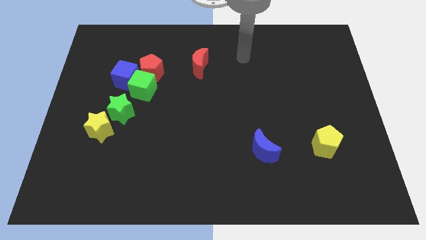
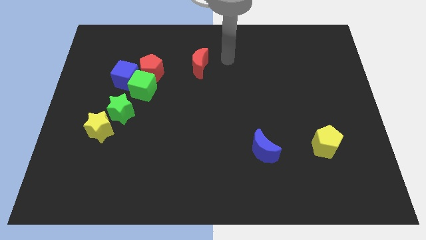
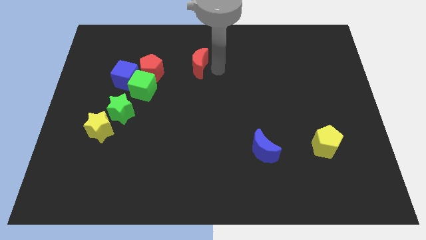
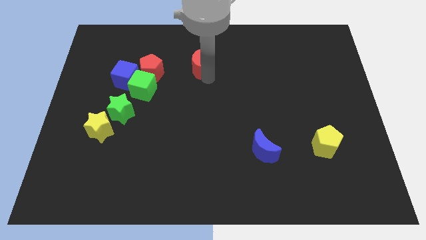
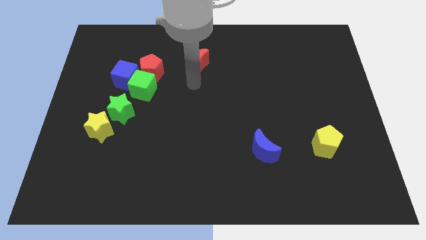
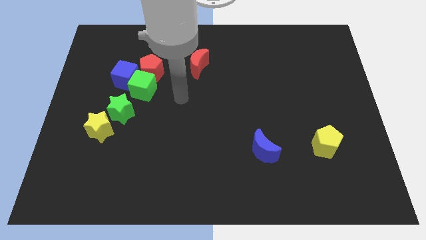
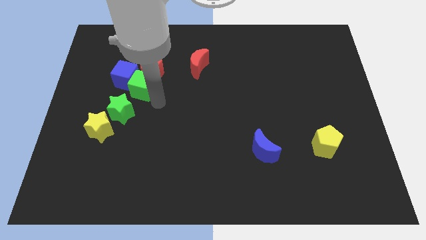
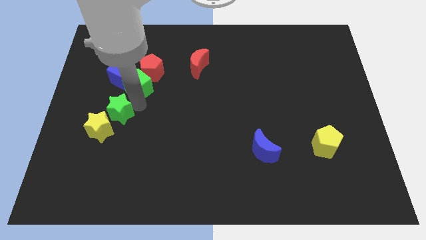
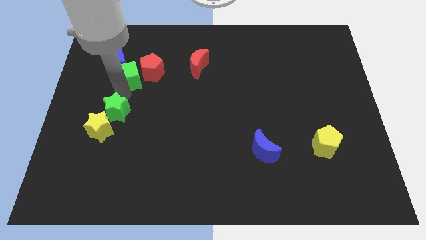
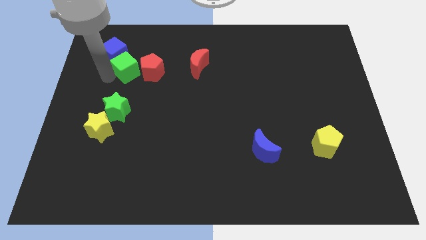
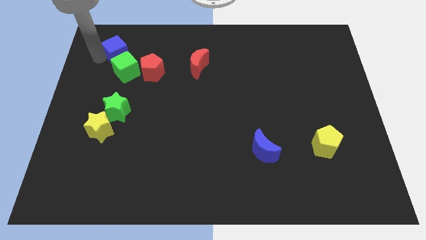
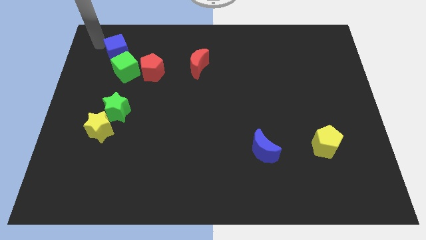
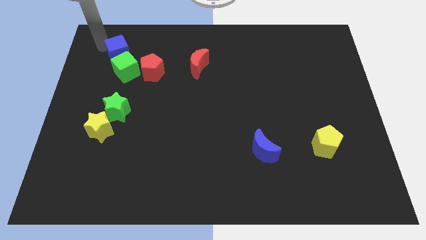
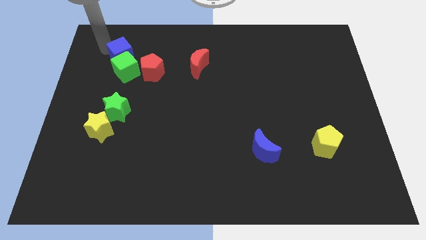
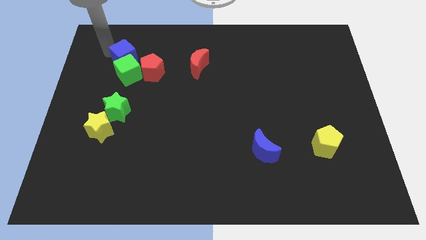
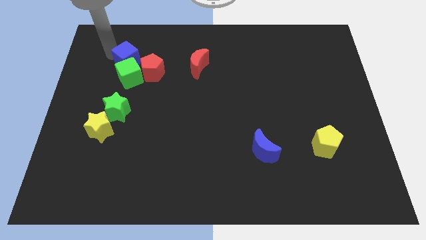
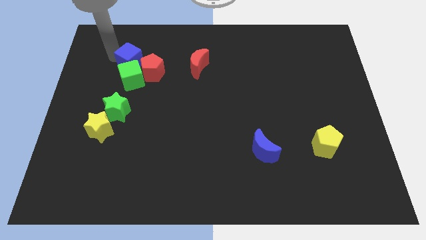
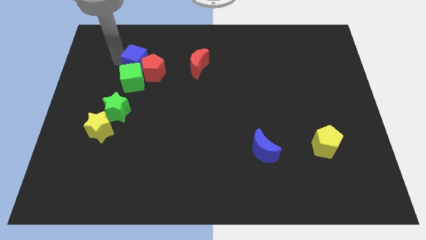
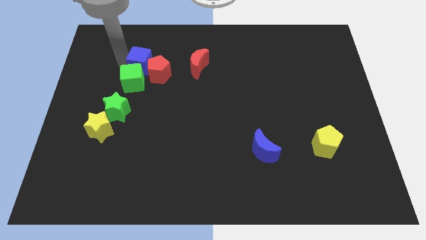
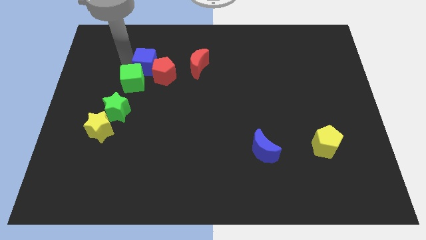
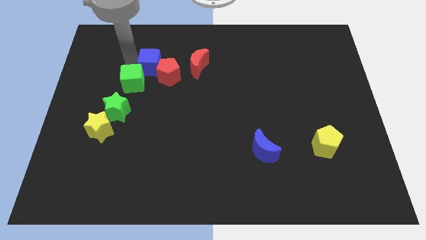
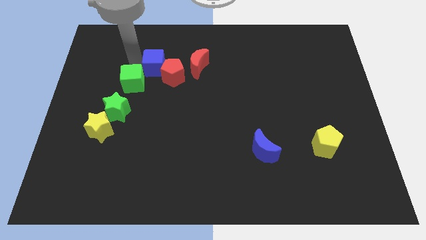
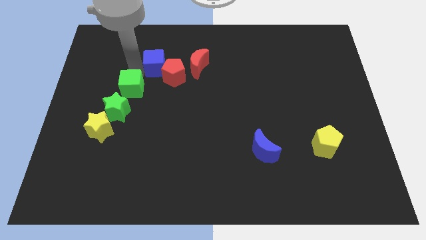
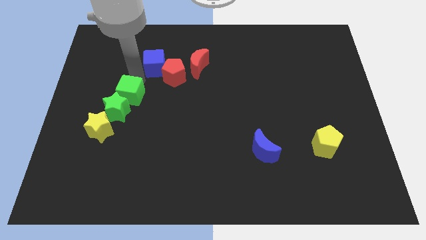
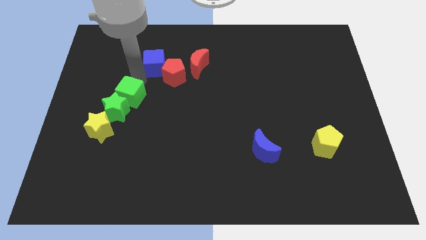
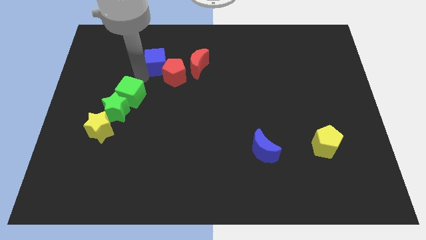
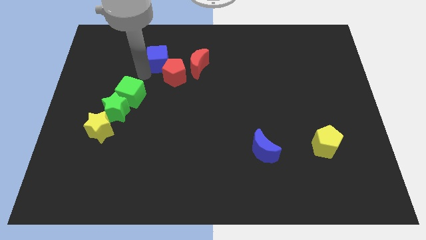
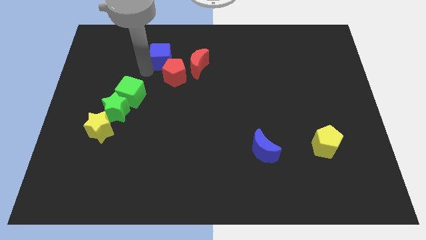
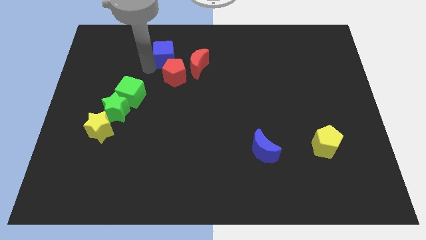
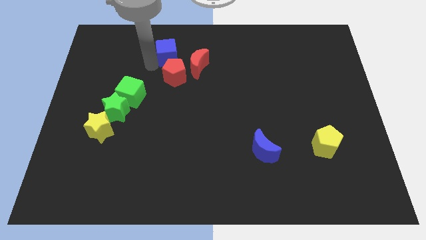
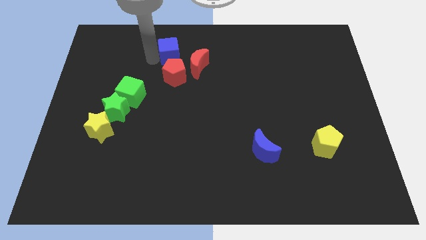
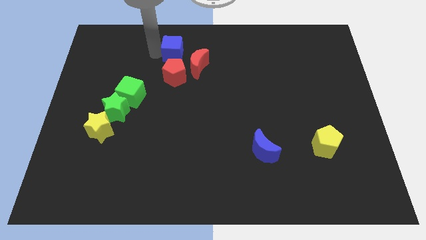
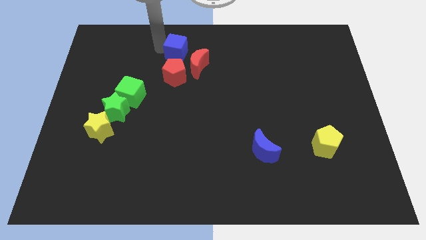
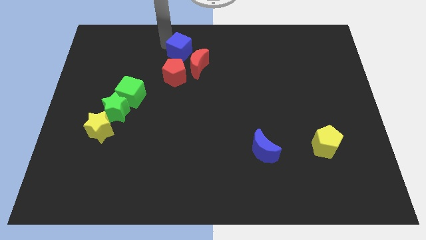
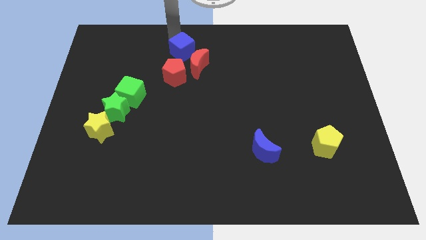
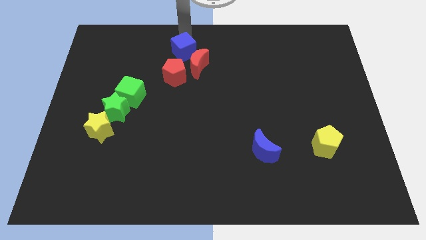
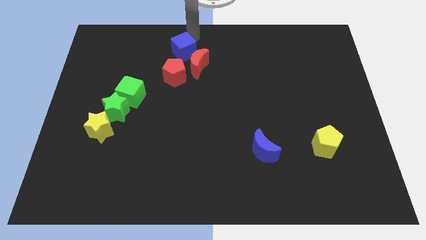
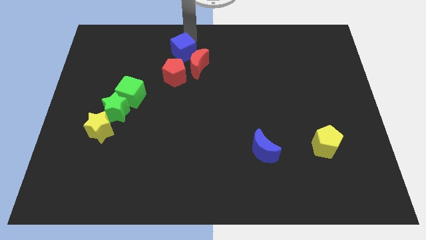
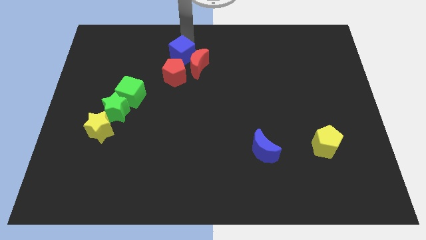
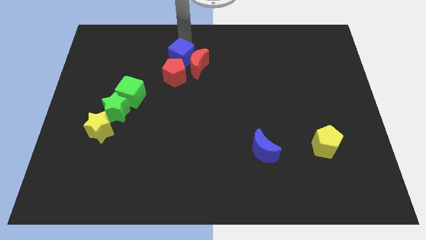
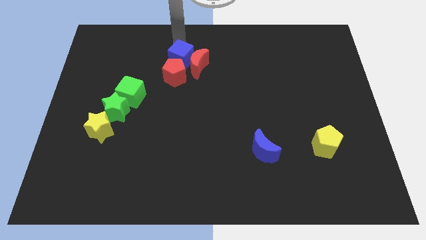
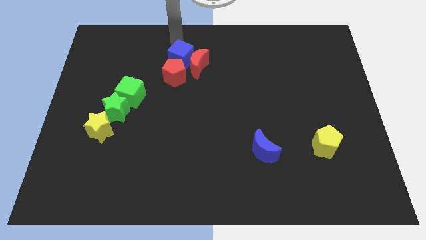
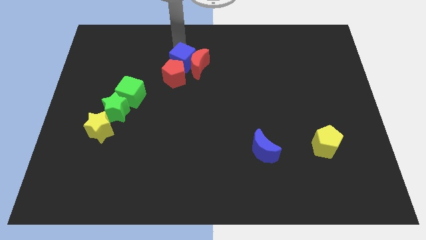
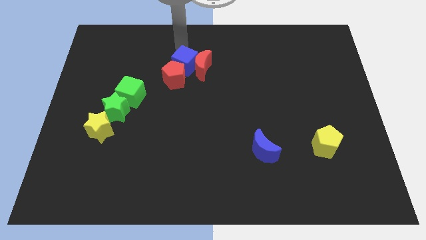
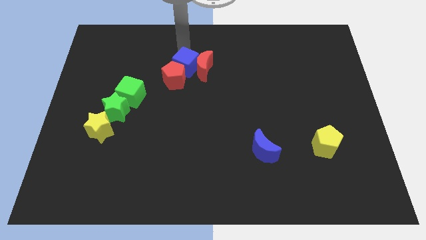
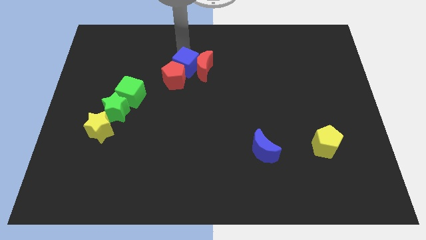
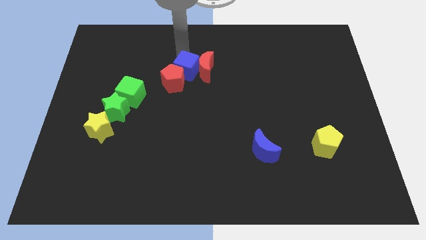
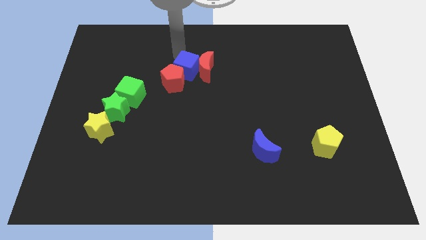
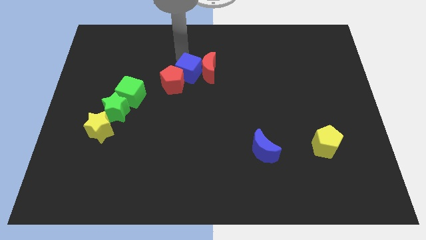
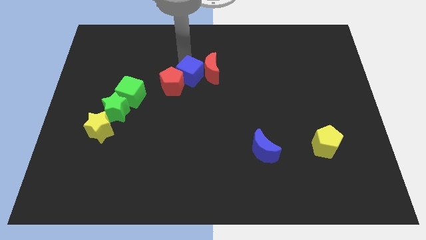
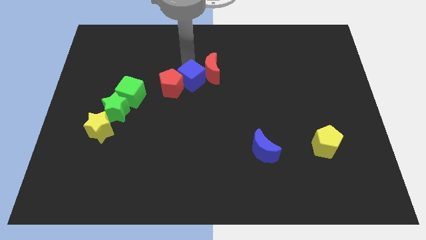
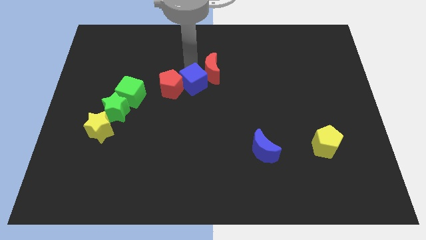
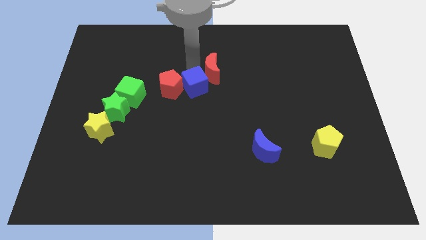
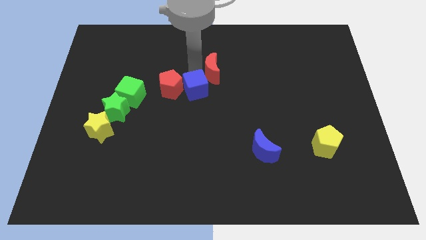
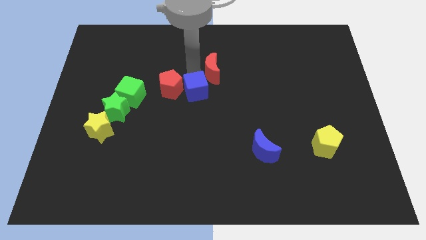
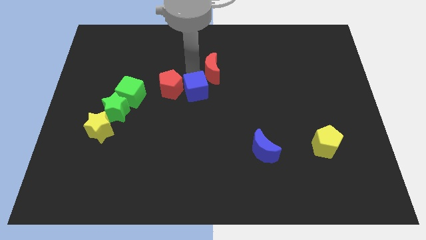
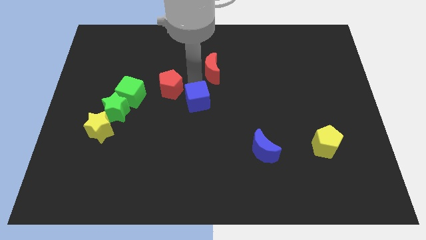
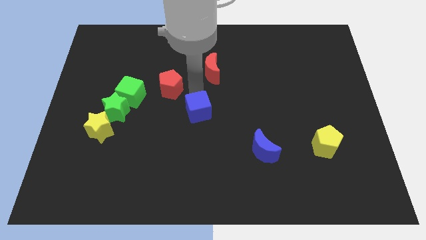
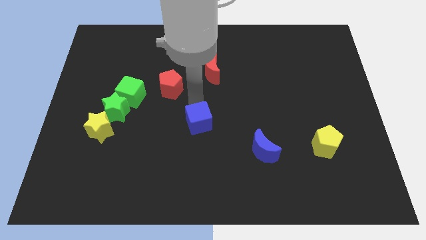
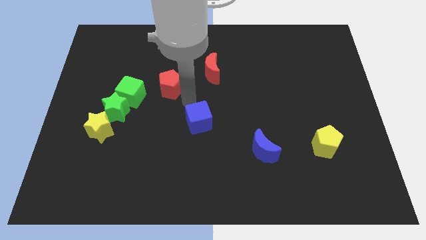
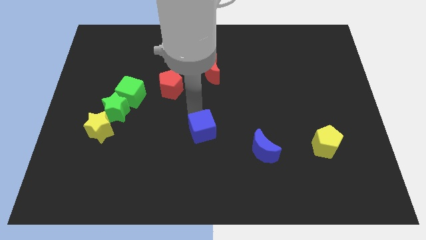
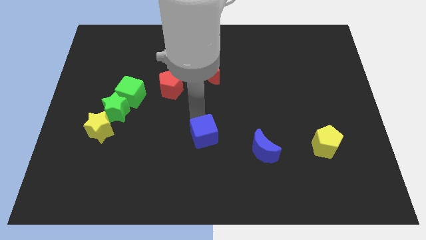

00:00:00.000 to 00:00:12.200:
slide the blue cube to the left of the blue moon
